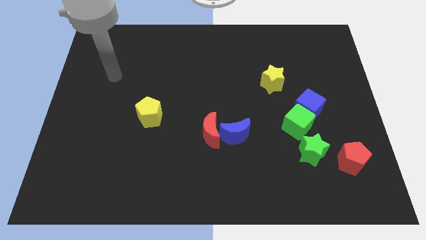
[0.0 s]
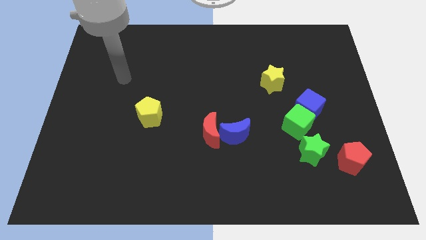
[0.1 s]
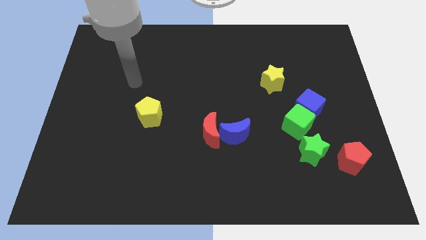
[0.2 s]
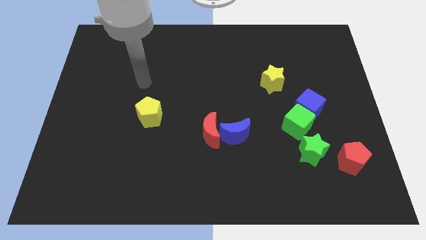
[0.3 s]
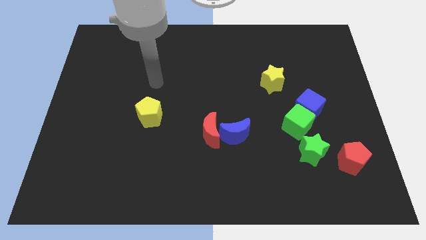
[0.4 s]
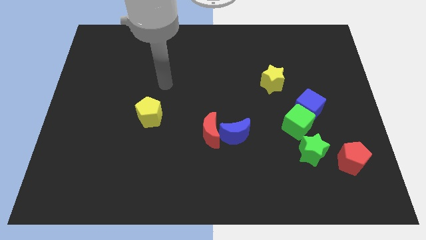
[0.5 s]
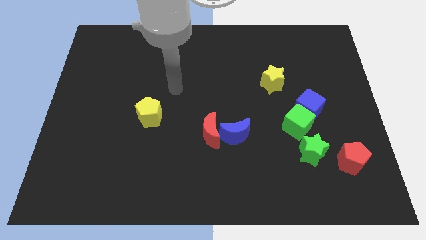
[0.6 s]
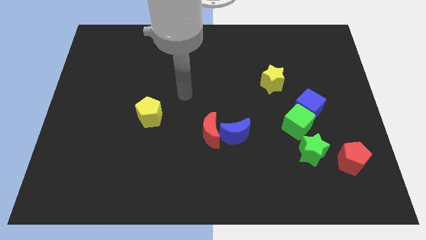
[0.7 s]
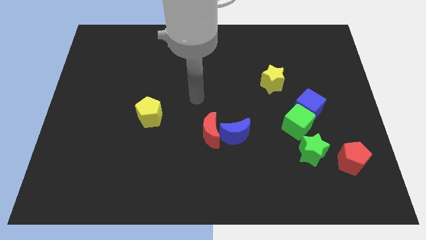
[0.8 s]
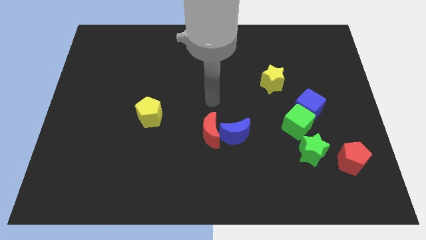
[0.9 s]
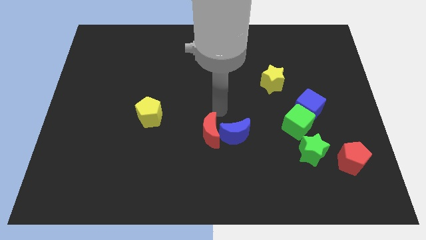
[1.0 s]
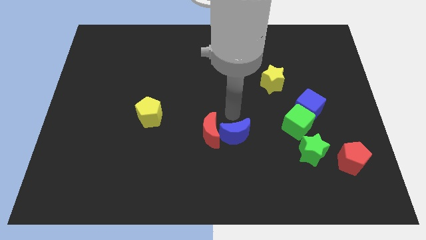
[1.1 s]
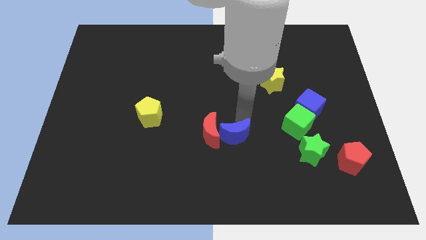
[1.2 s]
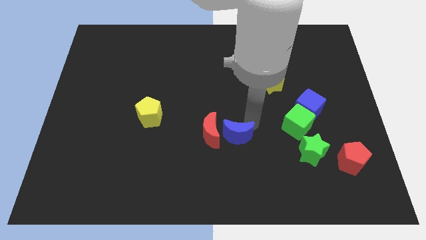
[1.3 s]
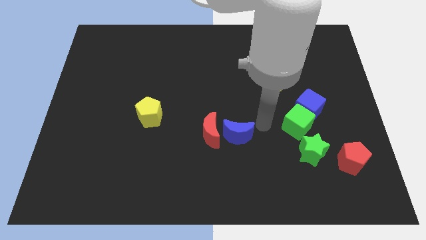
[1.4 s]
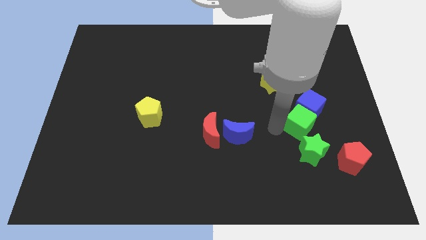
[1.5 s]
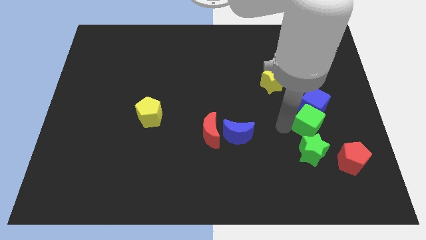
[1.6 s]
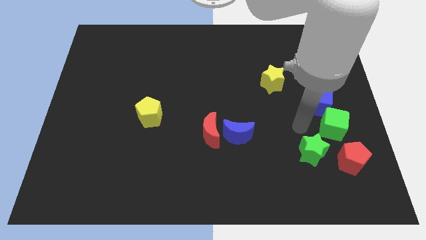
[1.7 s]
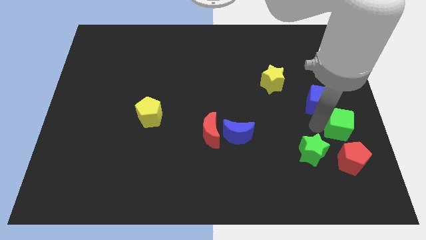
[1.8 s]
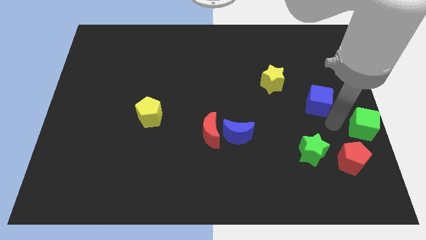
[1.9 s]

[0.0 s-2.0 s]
separate the blue cube from the green cube

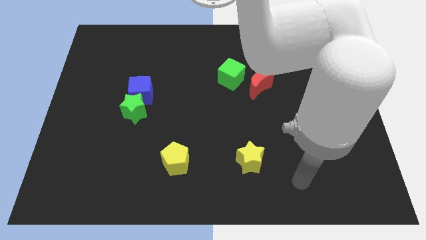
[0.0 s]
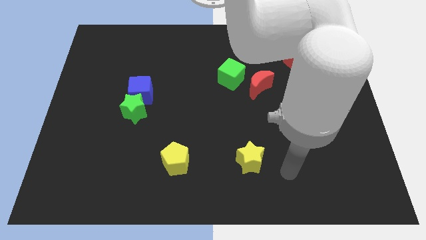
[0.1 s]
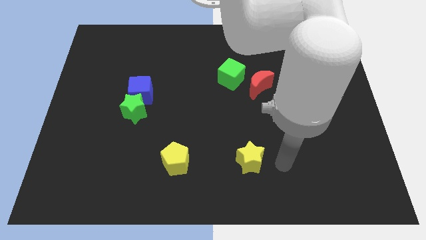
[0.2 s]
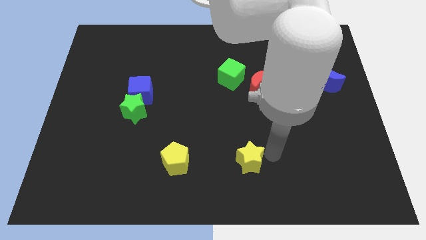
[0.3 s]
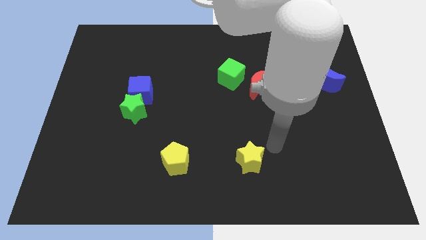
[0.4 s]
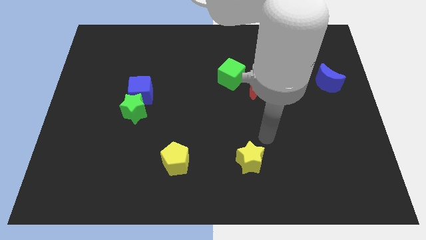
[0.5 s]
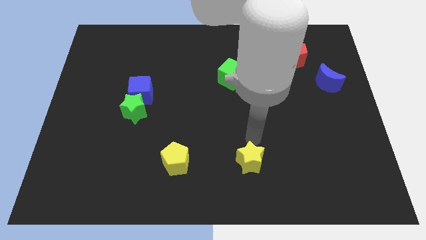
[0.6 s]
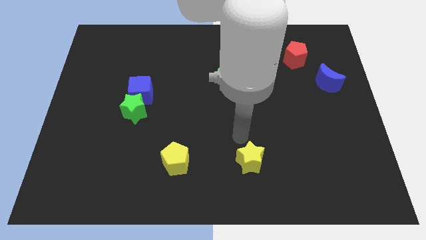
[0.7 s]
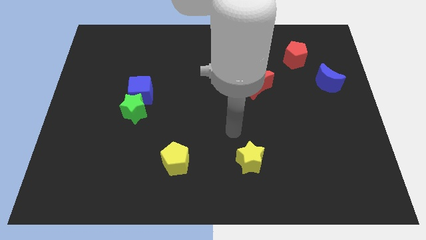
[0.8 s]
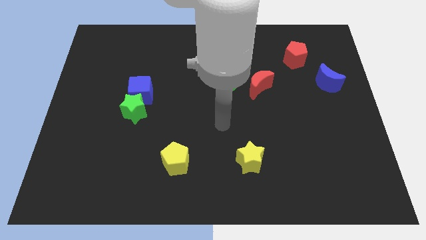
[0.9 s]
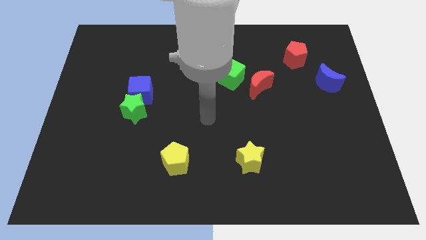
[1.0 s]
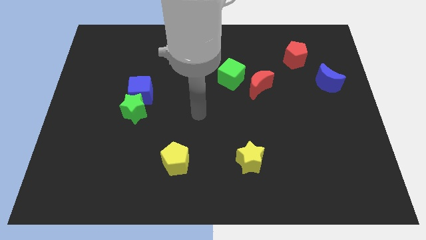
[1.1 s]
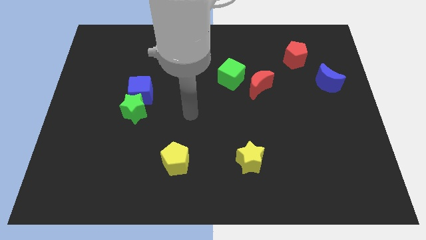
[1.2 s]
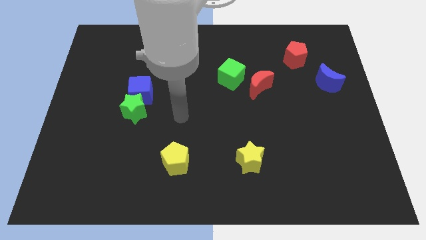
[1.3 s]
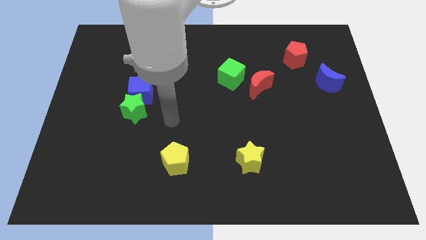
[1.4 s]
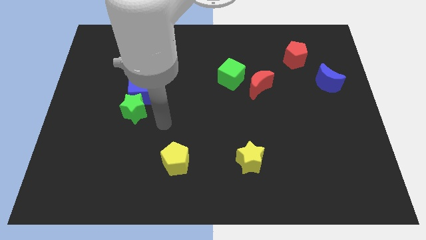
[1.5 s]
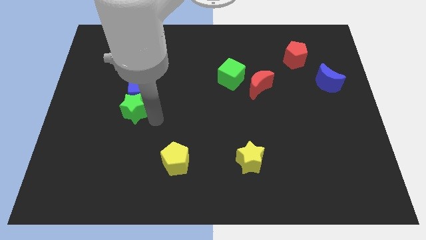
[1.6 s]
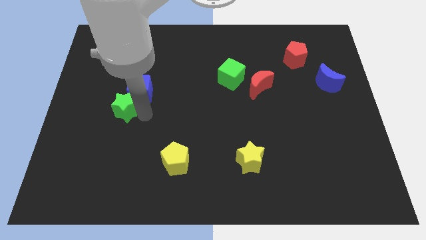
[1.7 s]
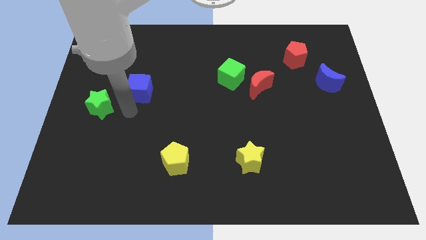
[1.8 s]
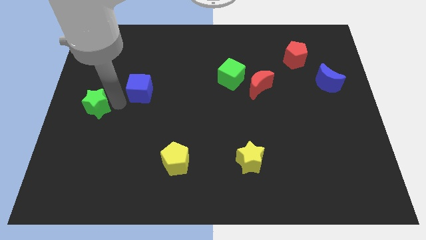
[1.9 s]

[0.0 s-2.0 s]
move the blue cube away from the green star

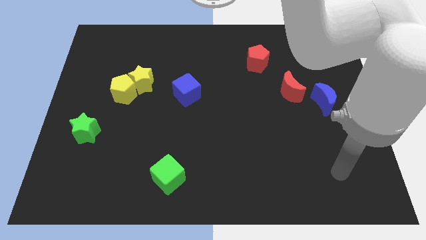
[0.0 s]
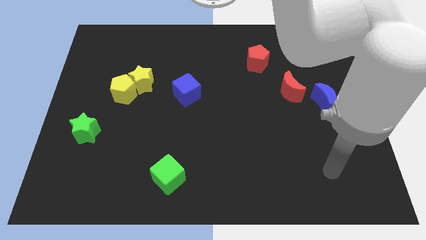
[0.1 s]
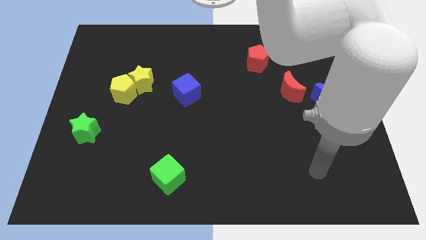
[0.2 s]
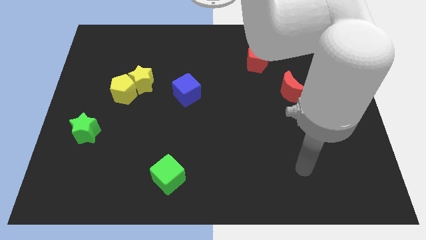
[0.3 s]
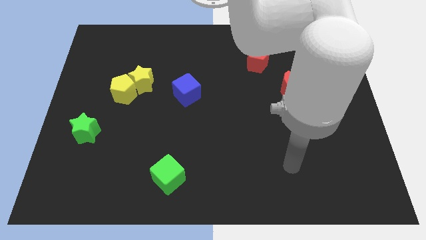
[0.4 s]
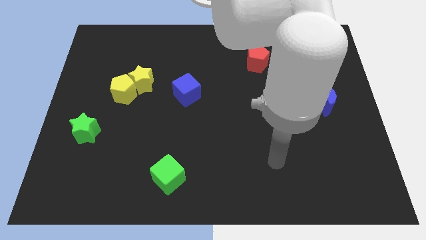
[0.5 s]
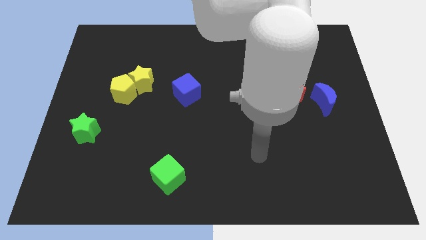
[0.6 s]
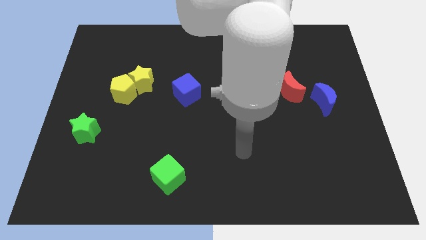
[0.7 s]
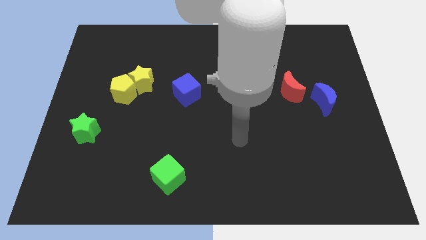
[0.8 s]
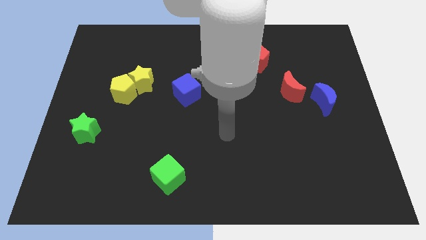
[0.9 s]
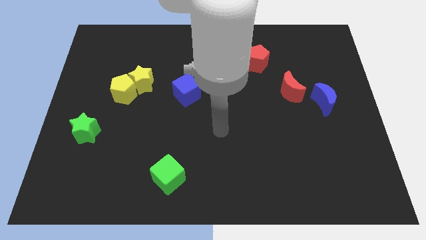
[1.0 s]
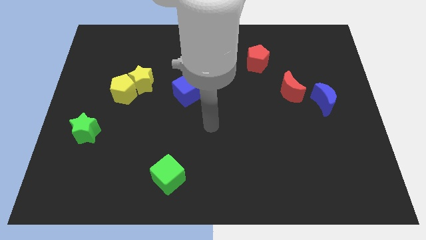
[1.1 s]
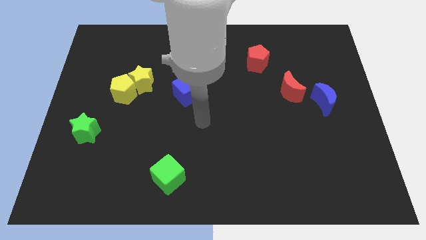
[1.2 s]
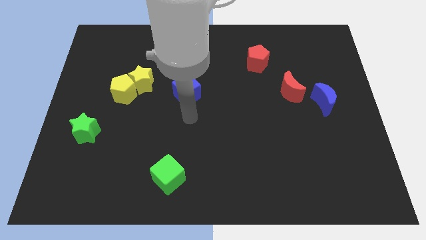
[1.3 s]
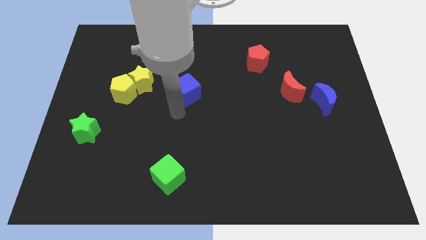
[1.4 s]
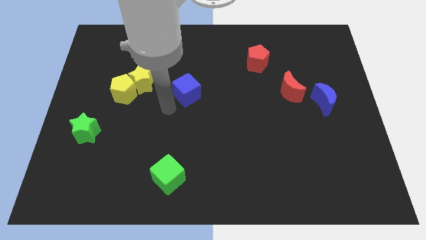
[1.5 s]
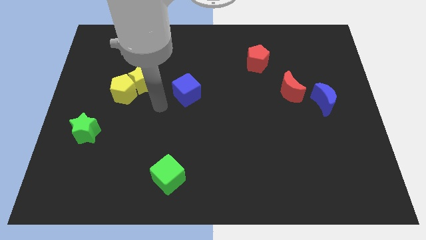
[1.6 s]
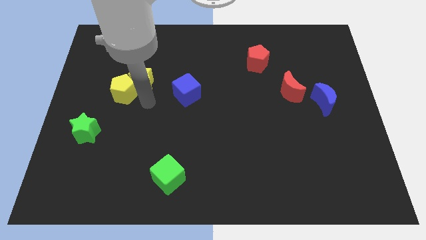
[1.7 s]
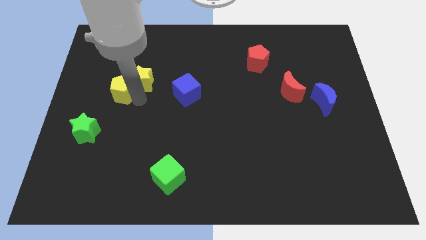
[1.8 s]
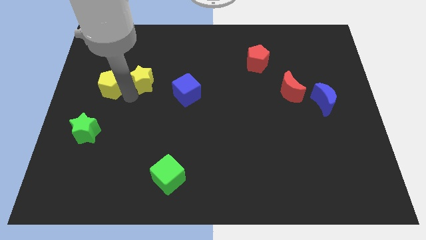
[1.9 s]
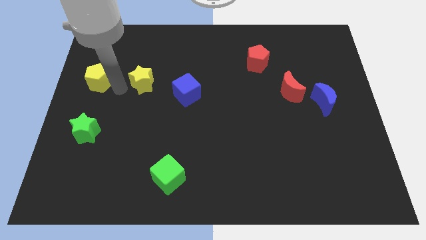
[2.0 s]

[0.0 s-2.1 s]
separate the yellow star from the yellow pentagon

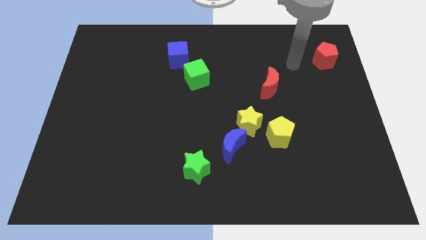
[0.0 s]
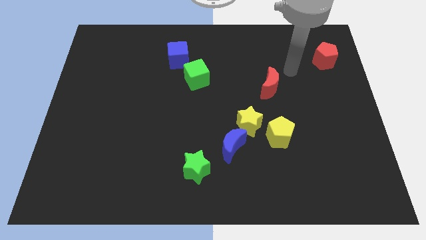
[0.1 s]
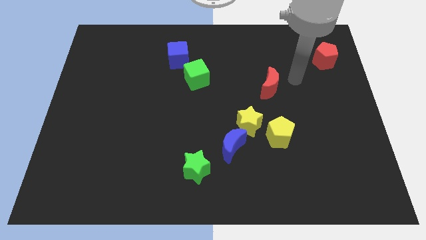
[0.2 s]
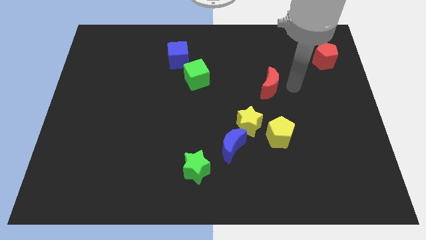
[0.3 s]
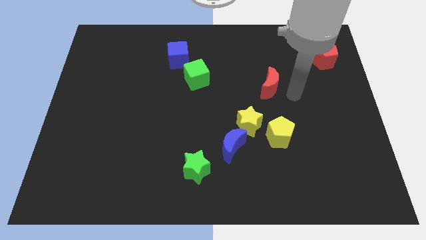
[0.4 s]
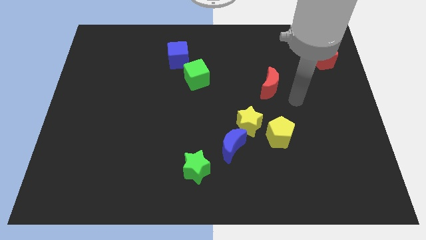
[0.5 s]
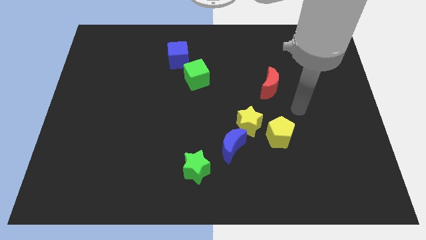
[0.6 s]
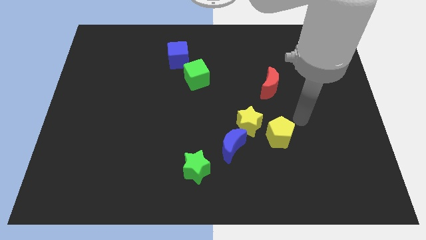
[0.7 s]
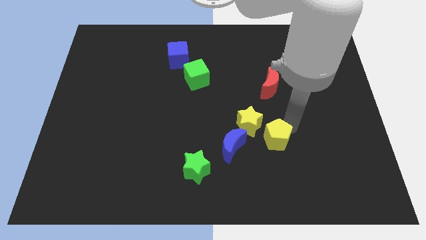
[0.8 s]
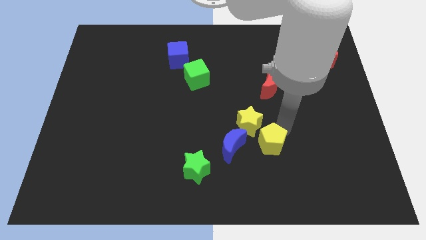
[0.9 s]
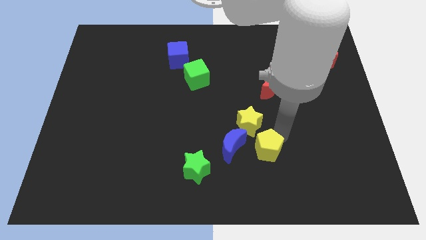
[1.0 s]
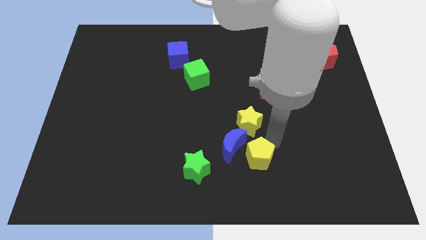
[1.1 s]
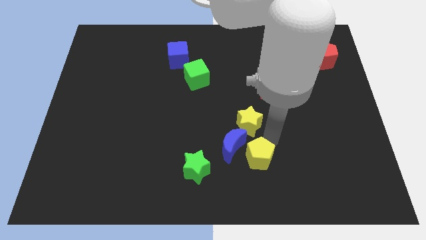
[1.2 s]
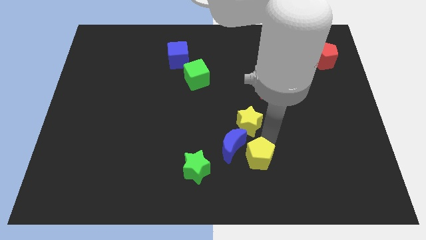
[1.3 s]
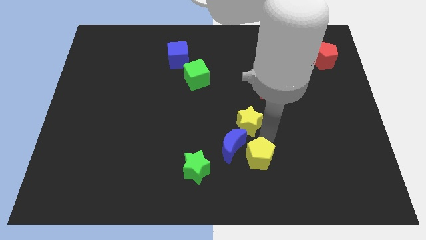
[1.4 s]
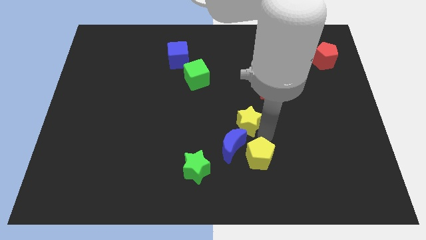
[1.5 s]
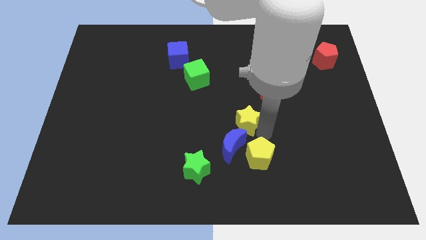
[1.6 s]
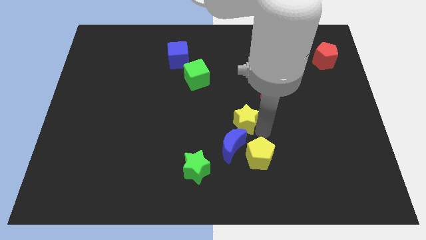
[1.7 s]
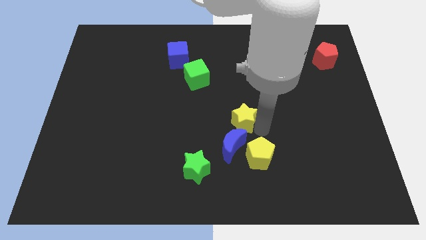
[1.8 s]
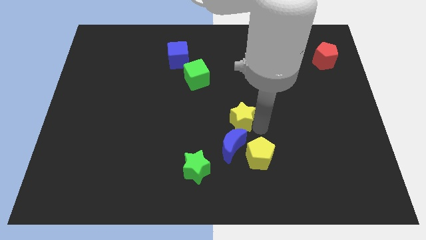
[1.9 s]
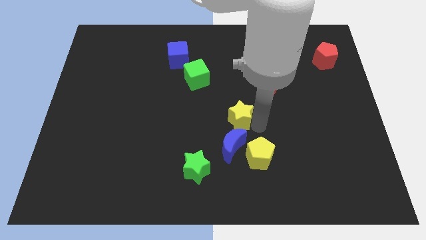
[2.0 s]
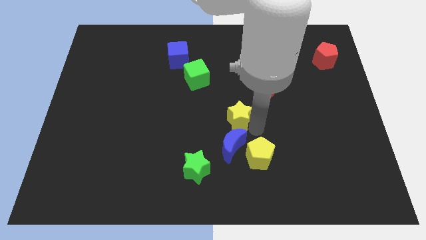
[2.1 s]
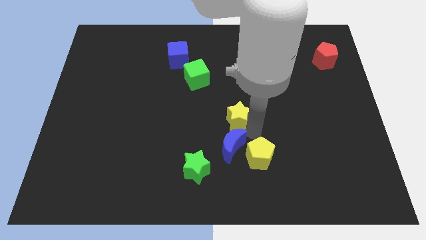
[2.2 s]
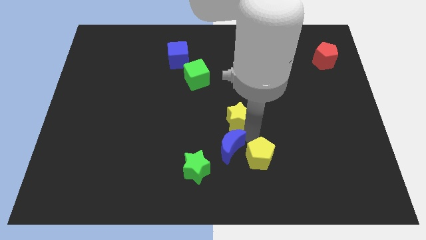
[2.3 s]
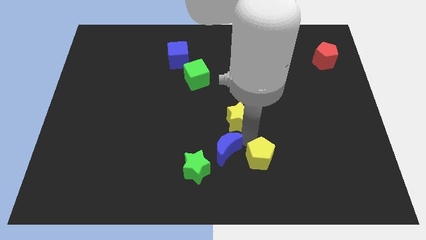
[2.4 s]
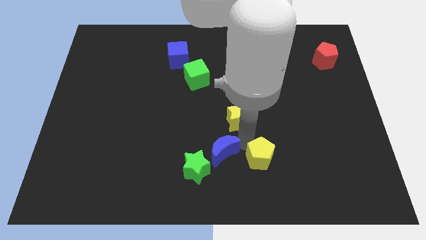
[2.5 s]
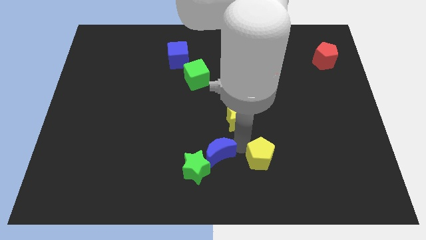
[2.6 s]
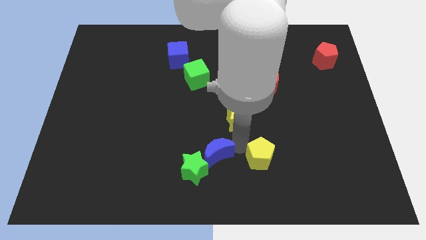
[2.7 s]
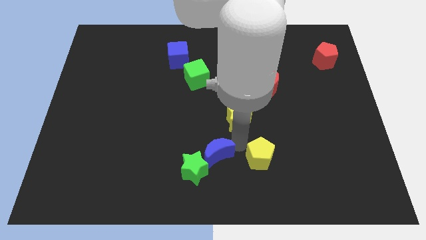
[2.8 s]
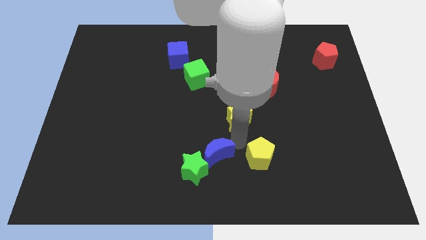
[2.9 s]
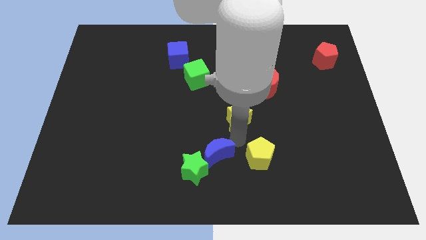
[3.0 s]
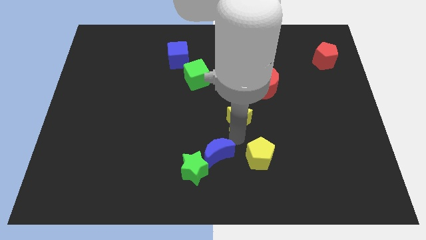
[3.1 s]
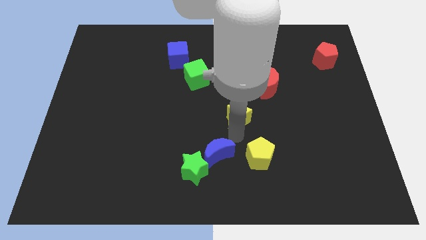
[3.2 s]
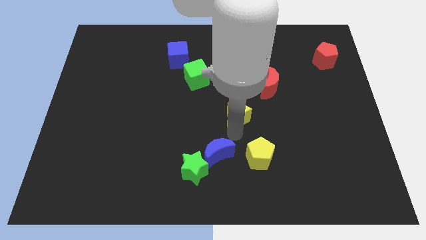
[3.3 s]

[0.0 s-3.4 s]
pull the yellow star apart from the blue moon and yellow pentagon
